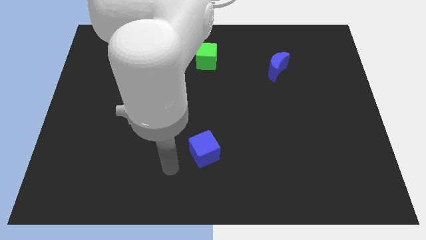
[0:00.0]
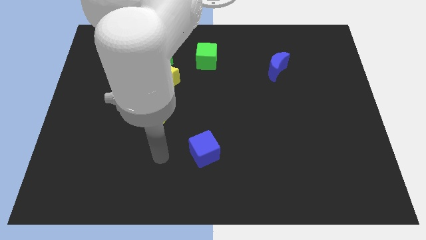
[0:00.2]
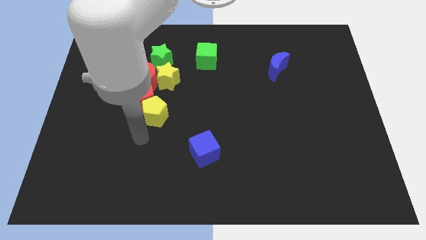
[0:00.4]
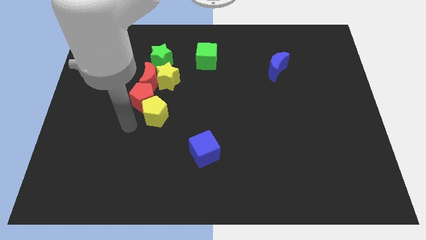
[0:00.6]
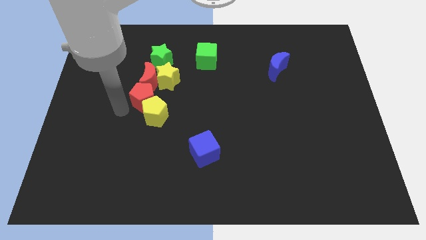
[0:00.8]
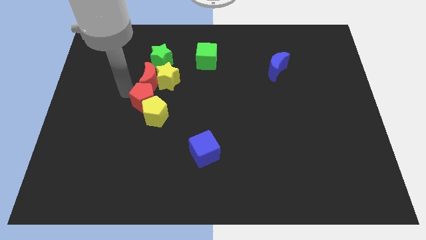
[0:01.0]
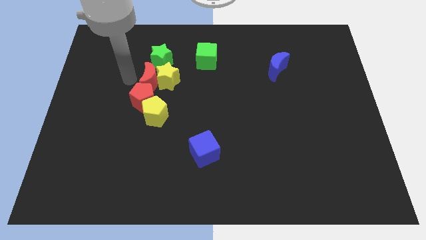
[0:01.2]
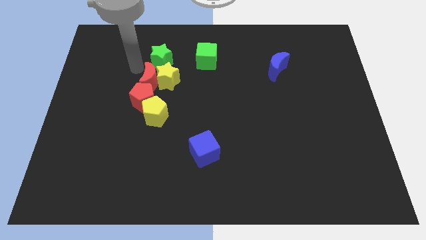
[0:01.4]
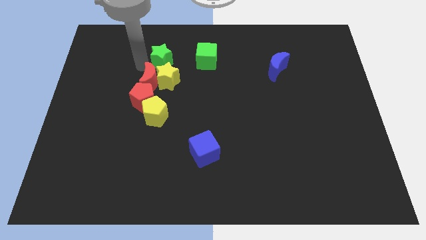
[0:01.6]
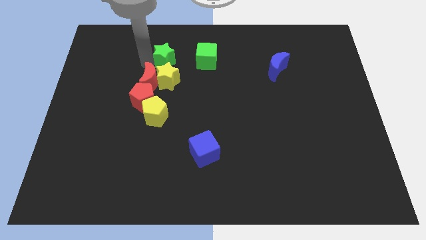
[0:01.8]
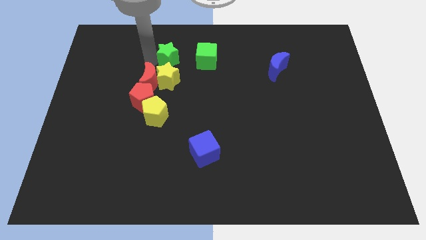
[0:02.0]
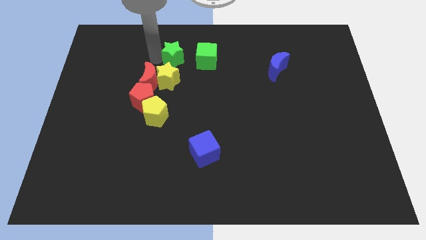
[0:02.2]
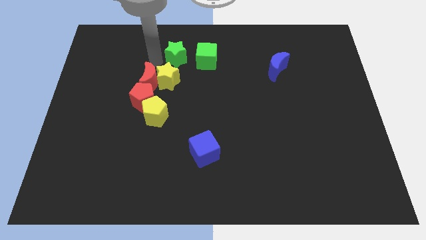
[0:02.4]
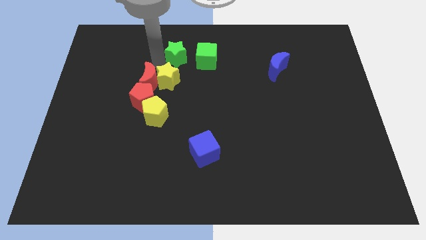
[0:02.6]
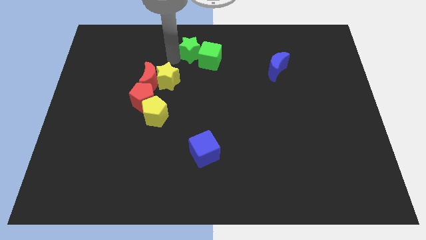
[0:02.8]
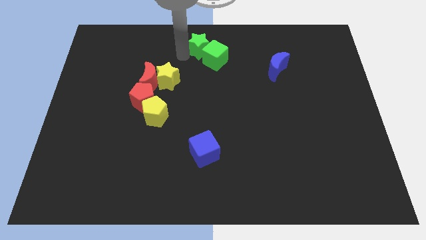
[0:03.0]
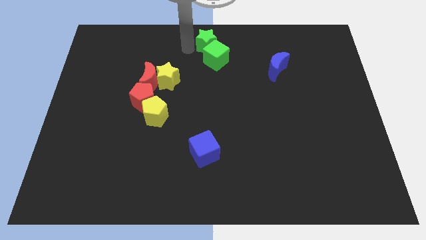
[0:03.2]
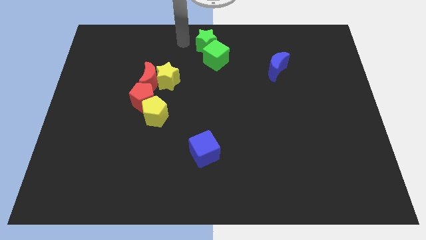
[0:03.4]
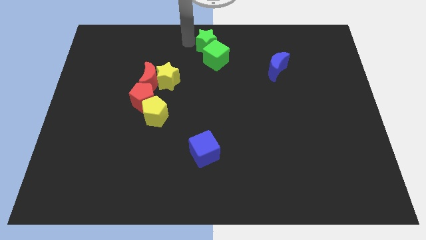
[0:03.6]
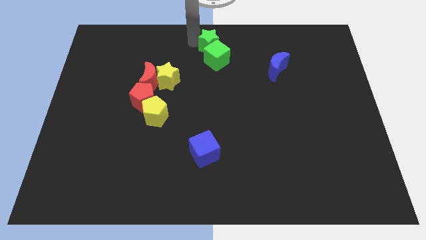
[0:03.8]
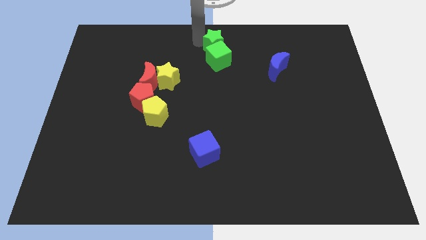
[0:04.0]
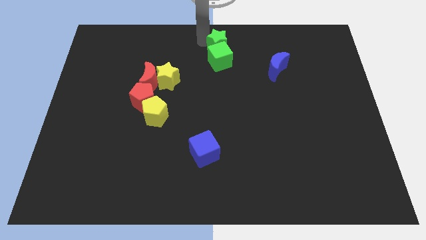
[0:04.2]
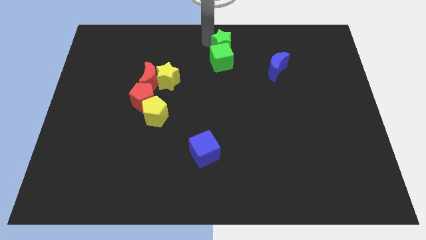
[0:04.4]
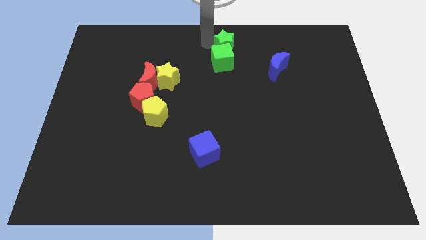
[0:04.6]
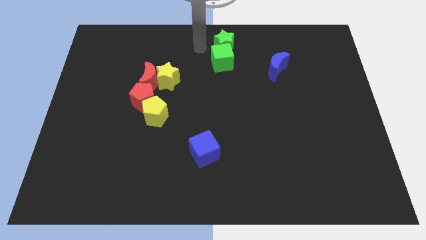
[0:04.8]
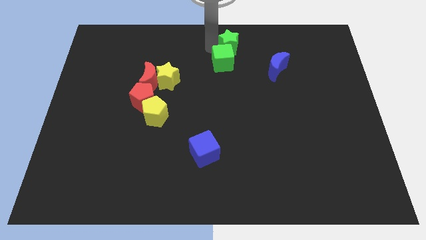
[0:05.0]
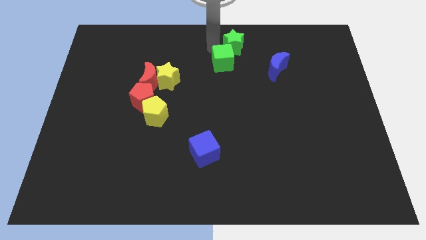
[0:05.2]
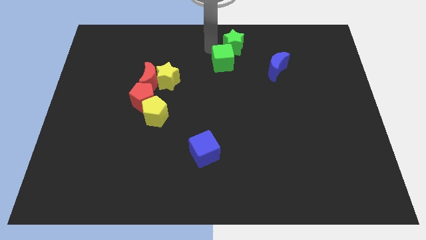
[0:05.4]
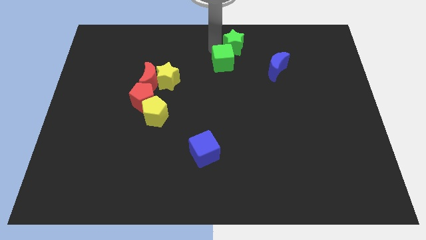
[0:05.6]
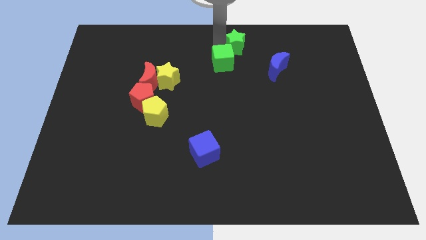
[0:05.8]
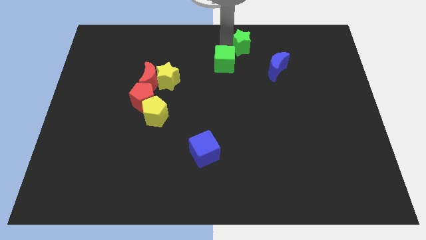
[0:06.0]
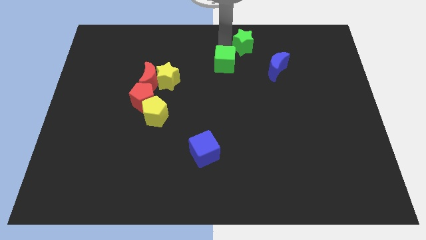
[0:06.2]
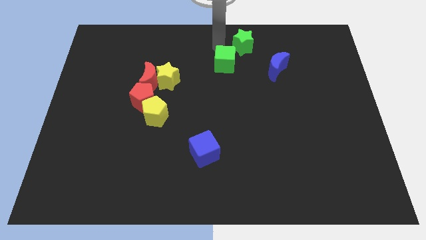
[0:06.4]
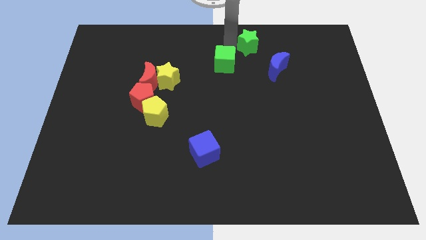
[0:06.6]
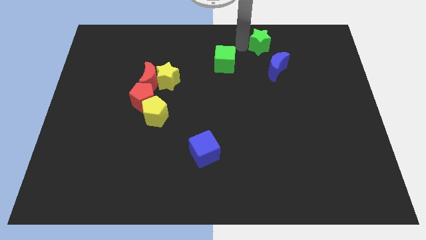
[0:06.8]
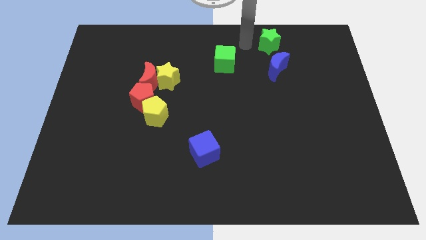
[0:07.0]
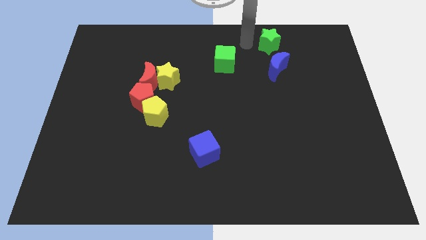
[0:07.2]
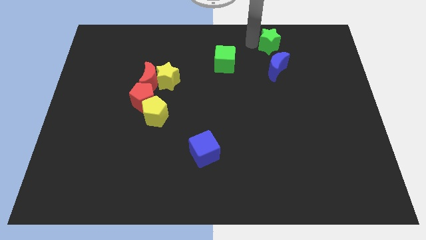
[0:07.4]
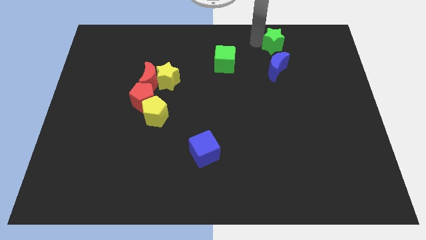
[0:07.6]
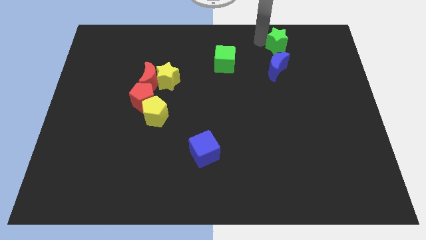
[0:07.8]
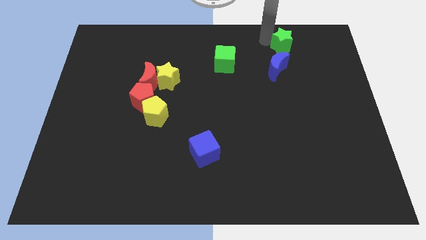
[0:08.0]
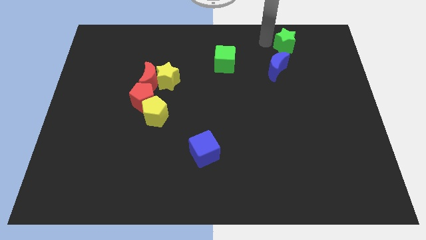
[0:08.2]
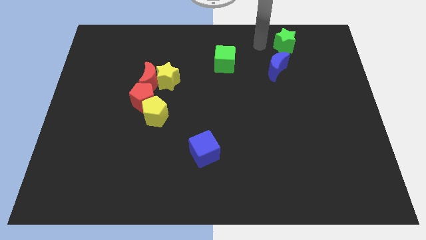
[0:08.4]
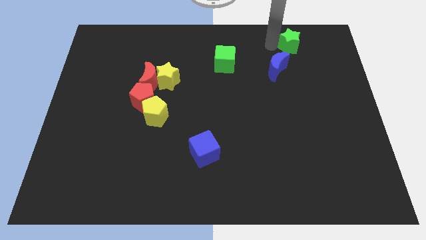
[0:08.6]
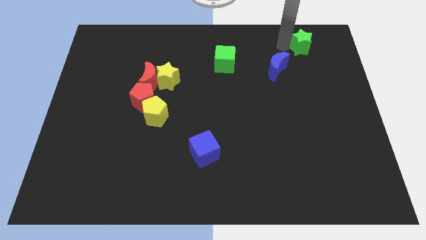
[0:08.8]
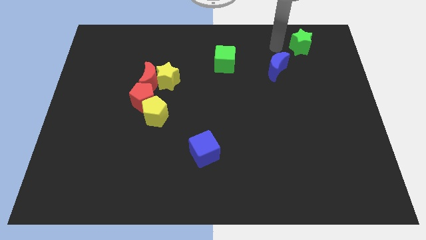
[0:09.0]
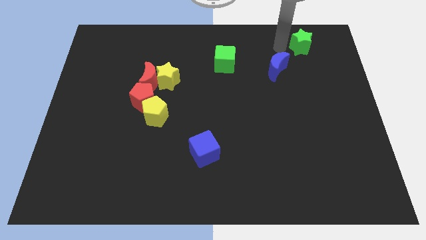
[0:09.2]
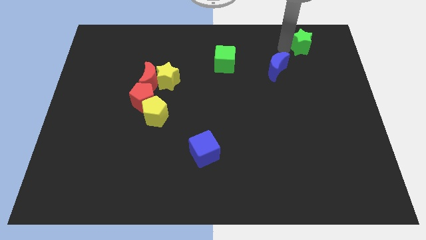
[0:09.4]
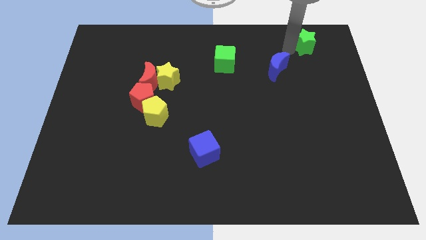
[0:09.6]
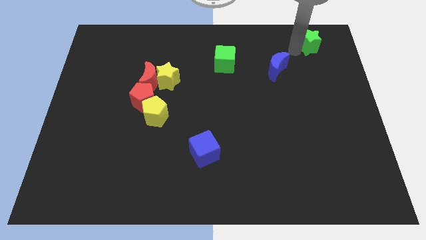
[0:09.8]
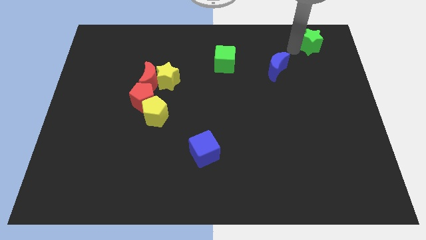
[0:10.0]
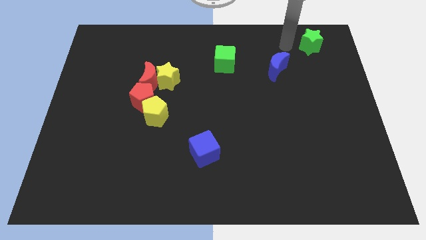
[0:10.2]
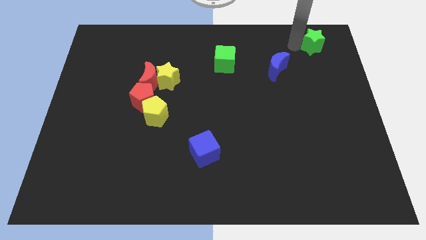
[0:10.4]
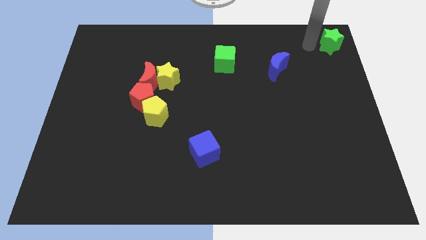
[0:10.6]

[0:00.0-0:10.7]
slide the green star to the top right corner

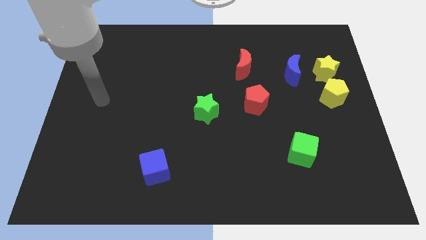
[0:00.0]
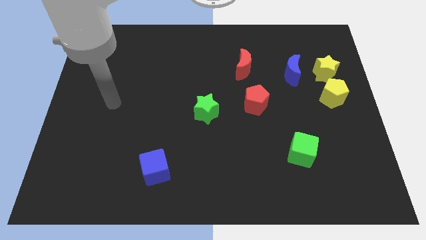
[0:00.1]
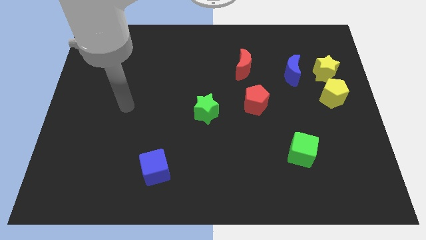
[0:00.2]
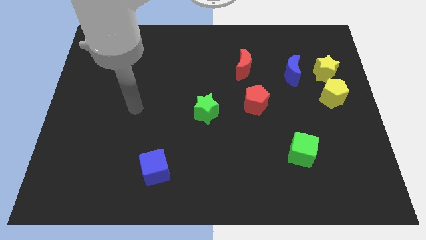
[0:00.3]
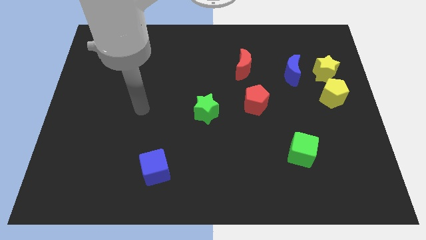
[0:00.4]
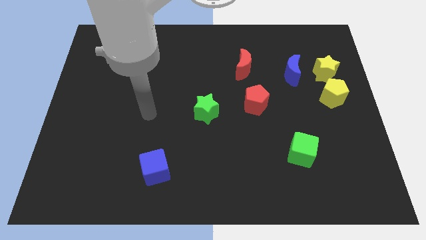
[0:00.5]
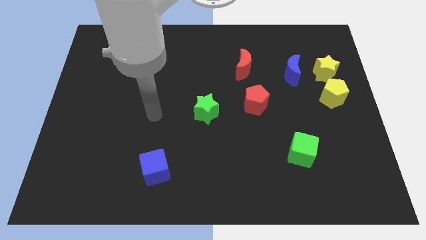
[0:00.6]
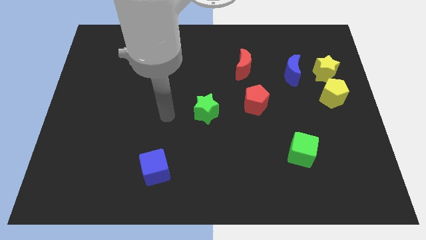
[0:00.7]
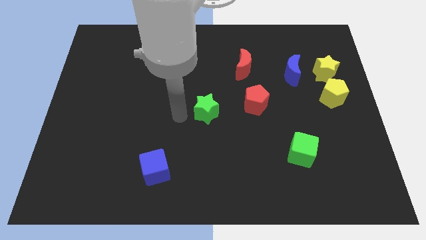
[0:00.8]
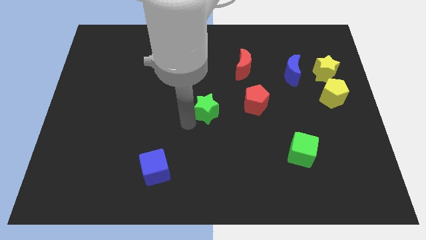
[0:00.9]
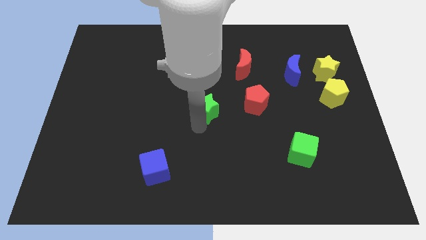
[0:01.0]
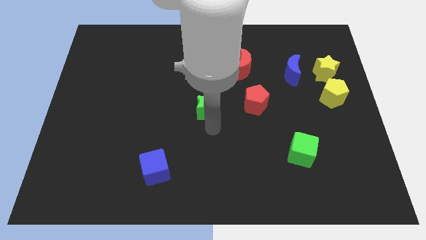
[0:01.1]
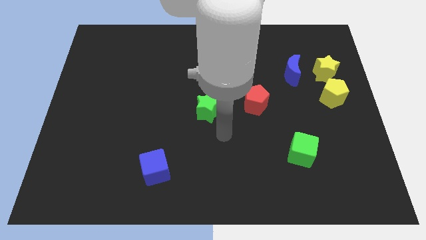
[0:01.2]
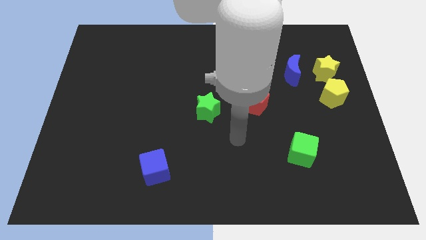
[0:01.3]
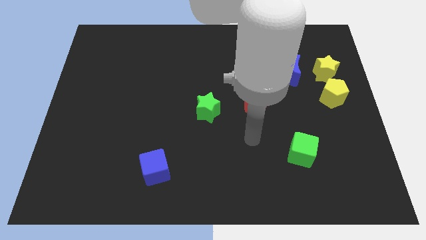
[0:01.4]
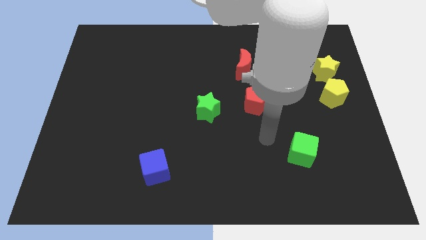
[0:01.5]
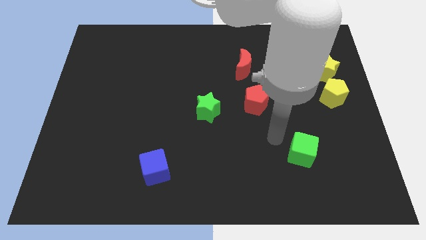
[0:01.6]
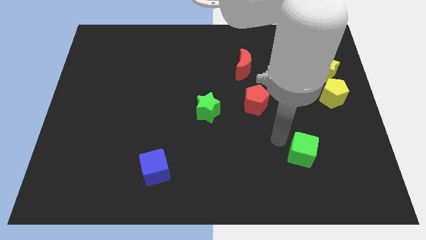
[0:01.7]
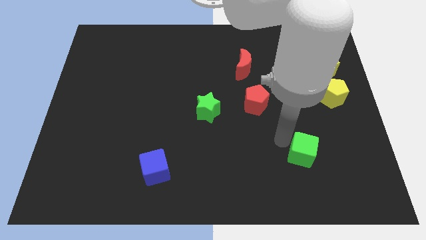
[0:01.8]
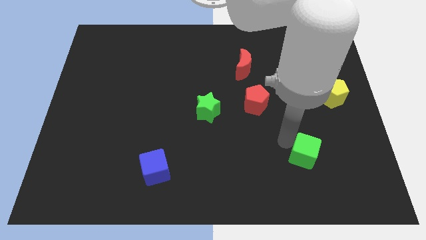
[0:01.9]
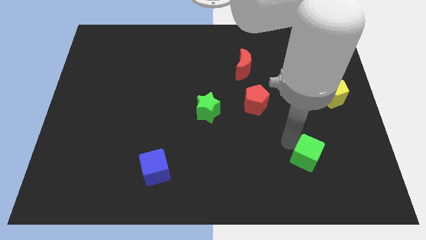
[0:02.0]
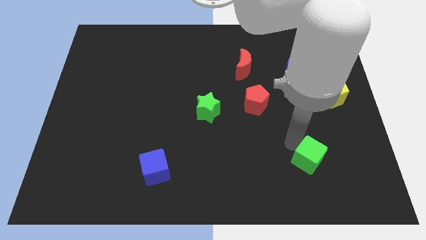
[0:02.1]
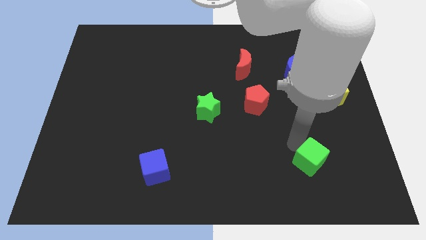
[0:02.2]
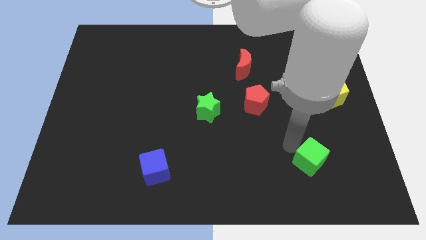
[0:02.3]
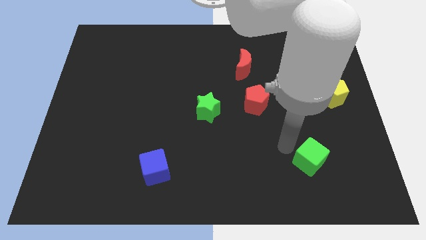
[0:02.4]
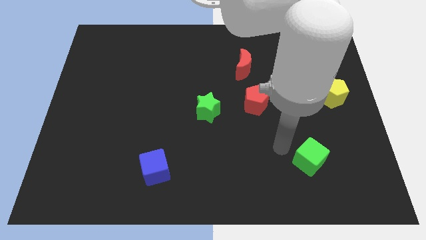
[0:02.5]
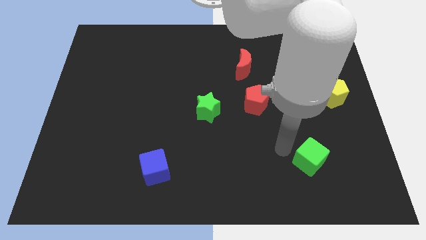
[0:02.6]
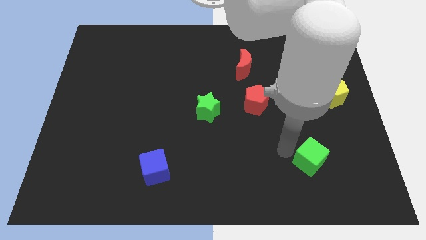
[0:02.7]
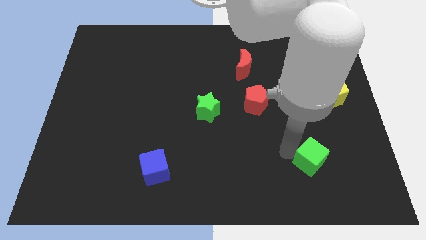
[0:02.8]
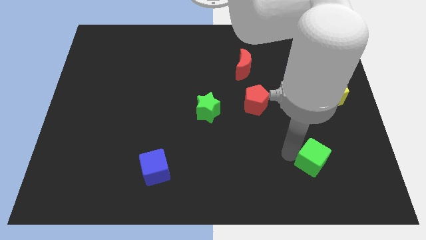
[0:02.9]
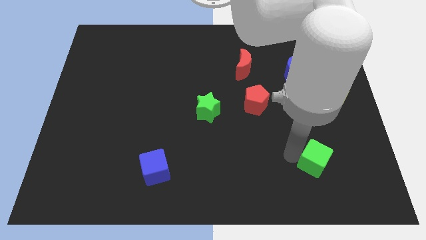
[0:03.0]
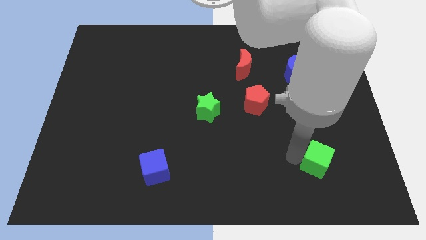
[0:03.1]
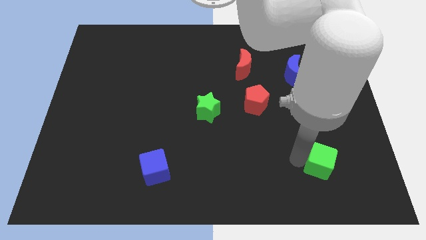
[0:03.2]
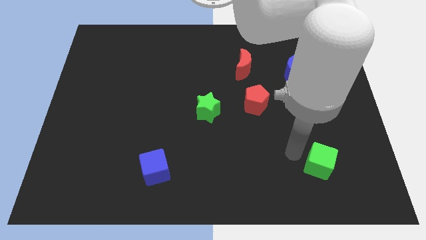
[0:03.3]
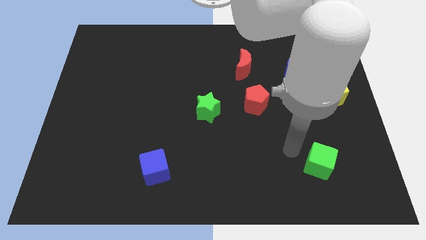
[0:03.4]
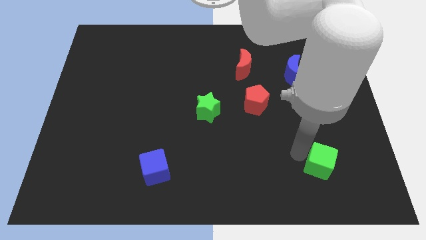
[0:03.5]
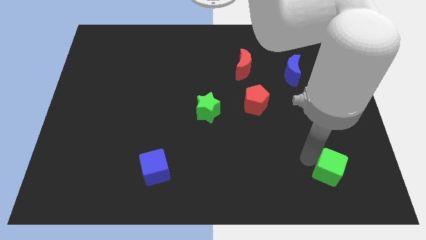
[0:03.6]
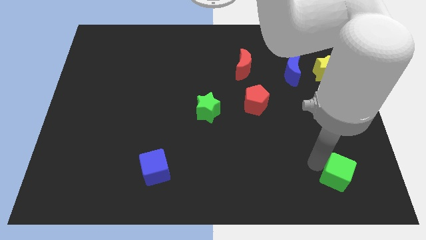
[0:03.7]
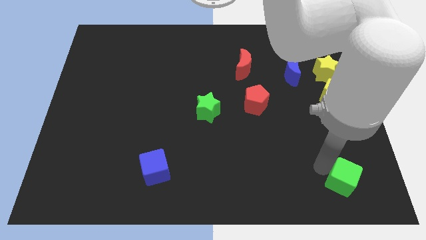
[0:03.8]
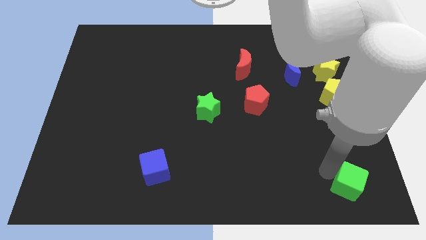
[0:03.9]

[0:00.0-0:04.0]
slide the green cube to the bottom right
